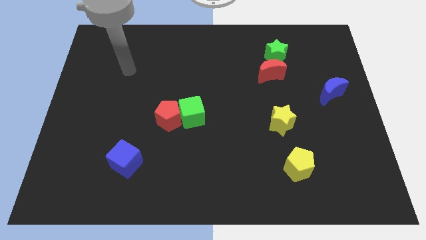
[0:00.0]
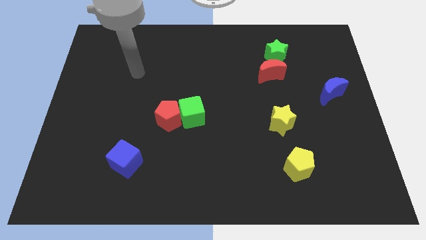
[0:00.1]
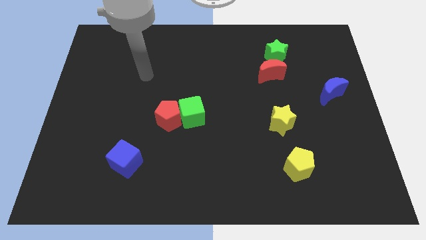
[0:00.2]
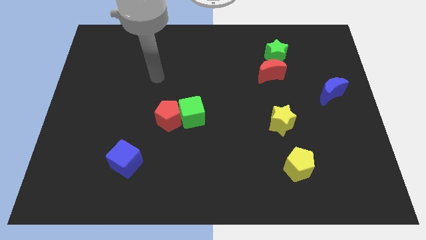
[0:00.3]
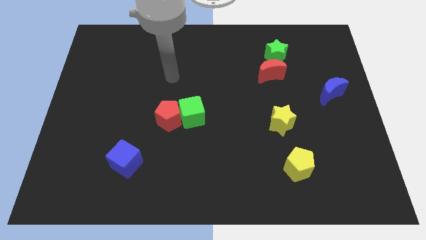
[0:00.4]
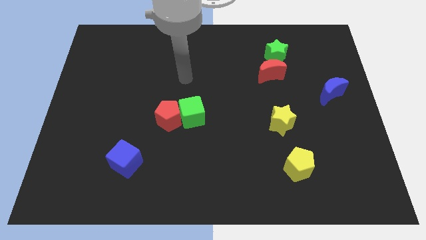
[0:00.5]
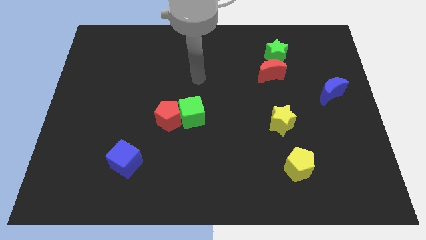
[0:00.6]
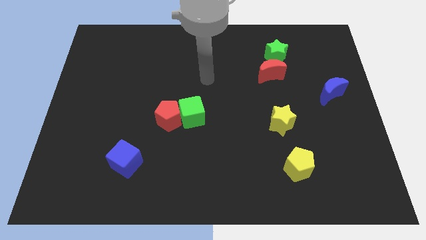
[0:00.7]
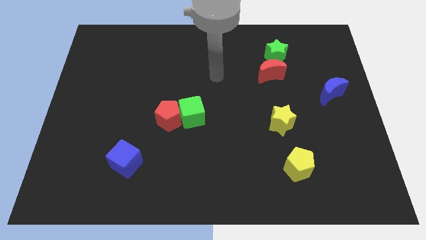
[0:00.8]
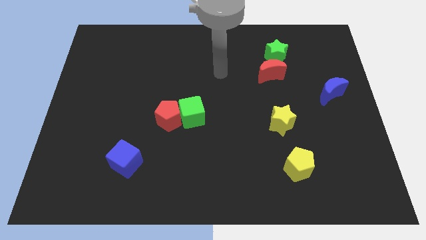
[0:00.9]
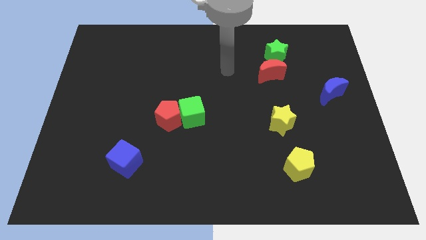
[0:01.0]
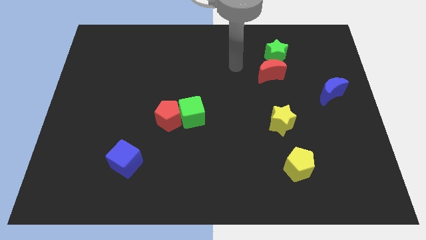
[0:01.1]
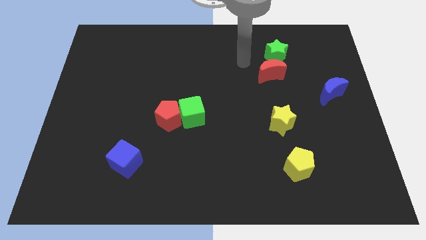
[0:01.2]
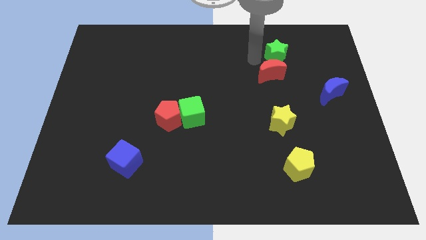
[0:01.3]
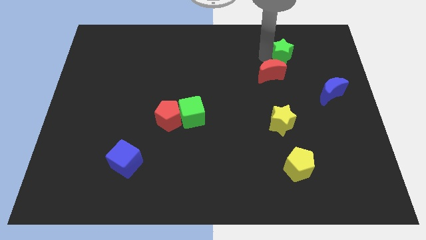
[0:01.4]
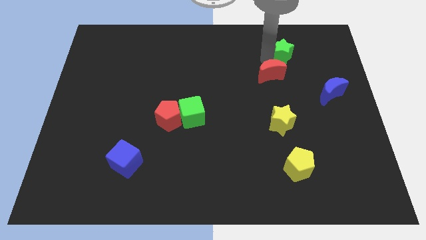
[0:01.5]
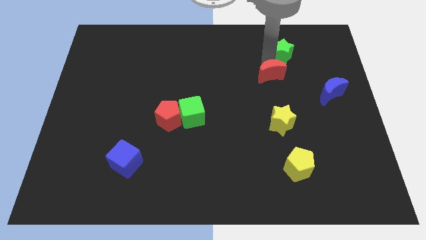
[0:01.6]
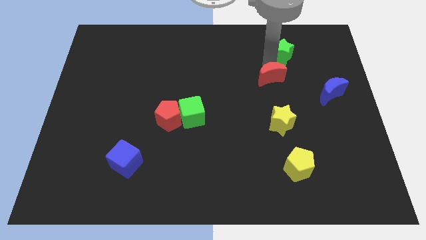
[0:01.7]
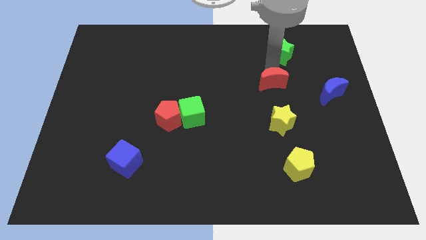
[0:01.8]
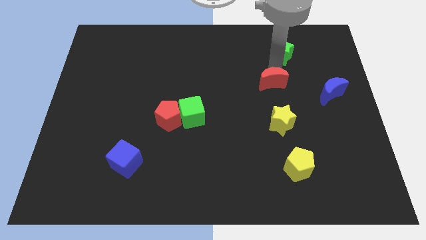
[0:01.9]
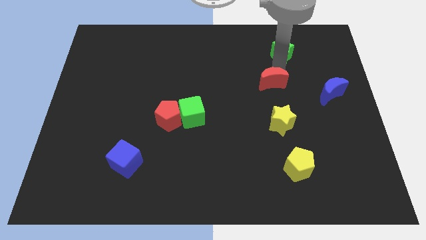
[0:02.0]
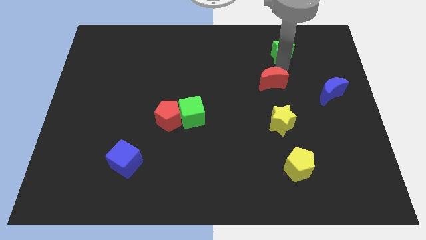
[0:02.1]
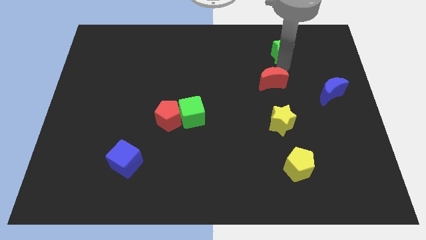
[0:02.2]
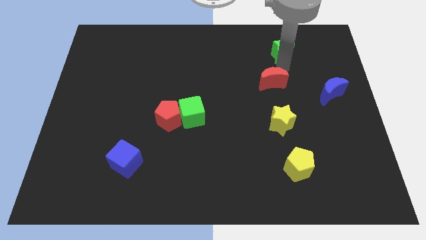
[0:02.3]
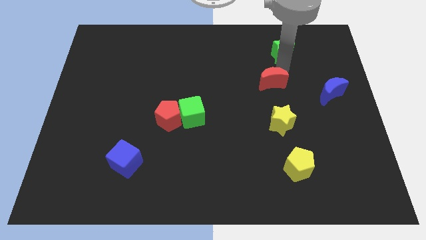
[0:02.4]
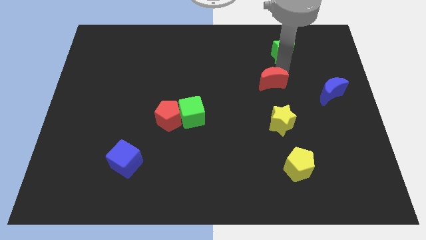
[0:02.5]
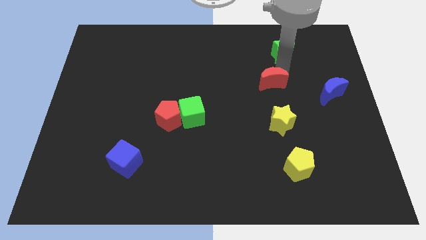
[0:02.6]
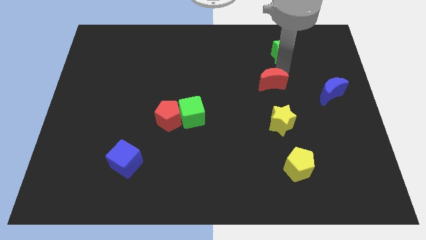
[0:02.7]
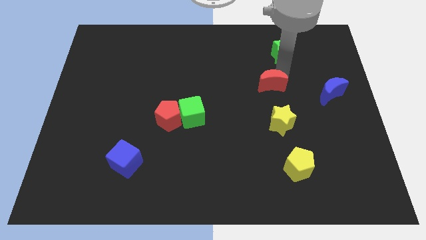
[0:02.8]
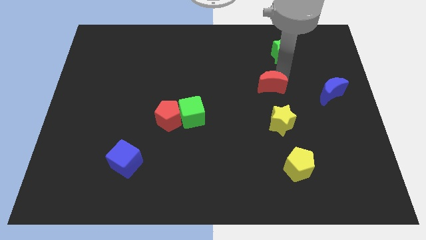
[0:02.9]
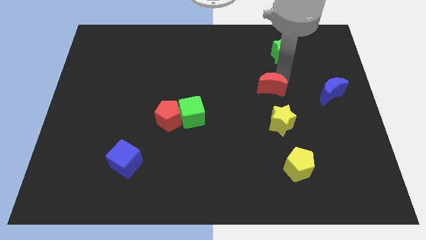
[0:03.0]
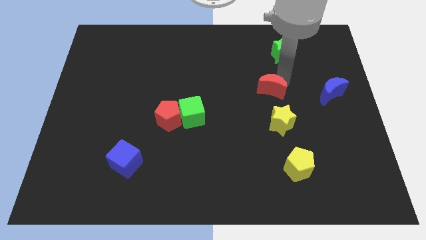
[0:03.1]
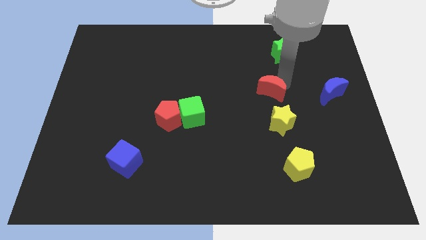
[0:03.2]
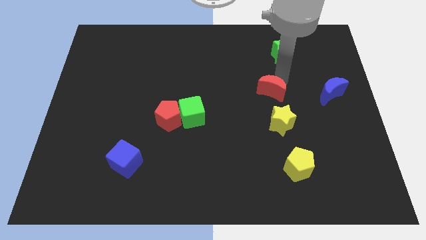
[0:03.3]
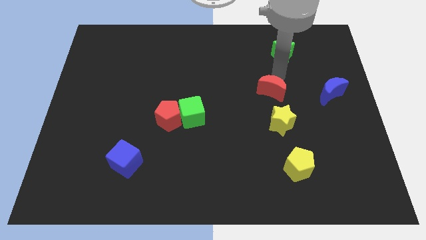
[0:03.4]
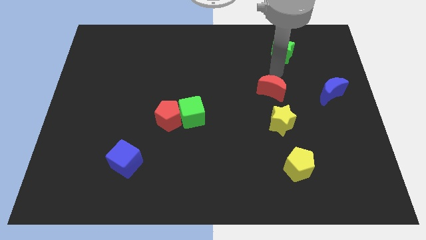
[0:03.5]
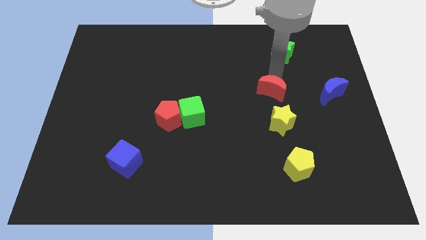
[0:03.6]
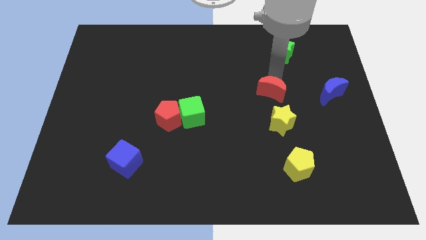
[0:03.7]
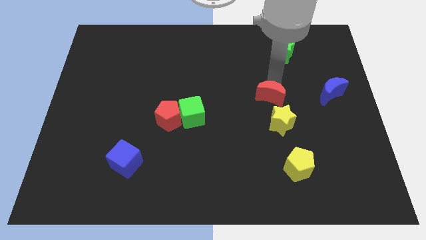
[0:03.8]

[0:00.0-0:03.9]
slide the red moon down somewhat

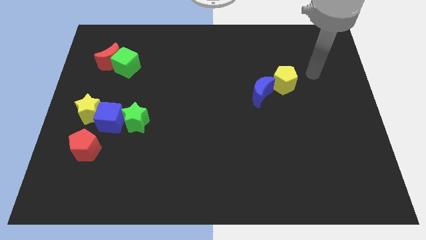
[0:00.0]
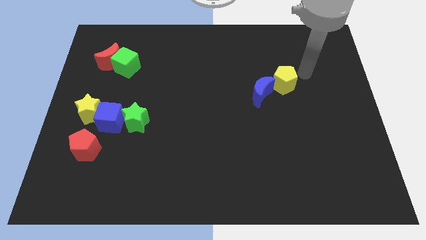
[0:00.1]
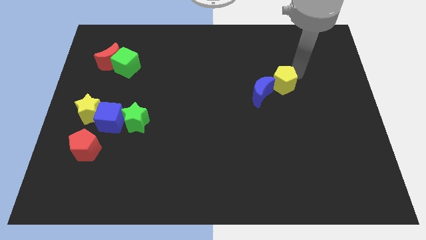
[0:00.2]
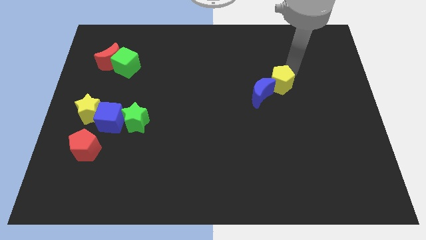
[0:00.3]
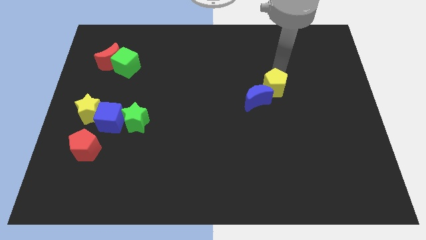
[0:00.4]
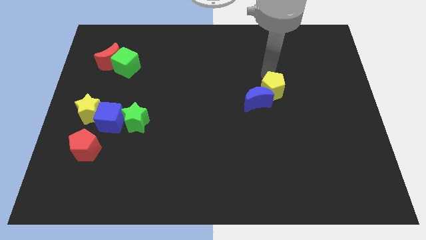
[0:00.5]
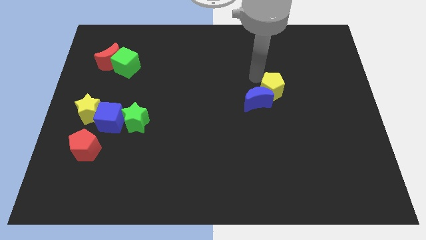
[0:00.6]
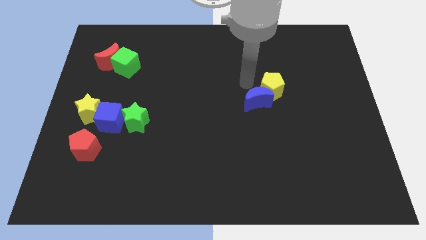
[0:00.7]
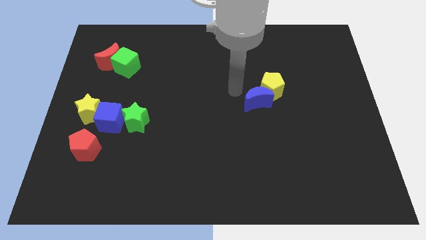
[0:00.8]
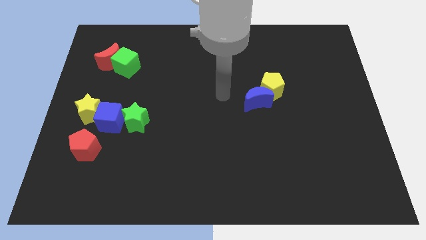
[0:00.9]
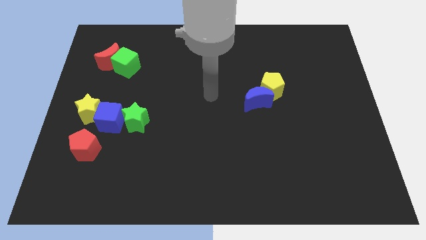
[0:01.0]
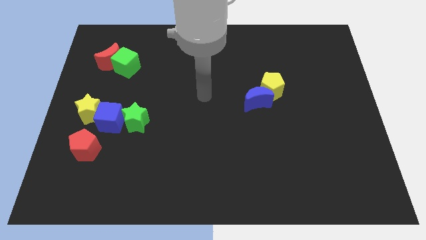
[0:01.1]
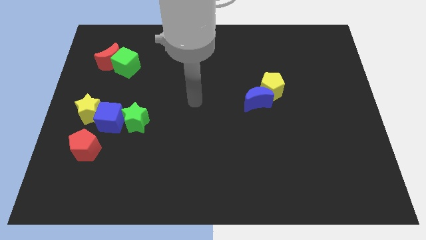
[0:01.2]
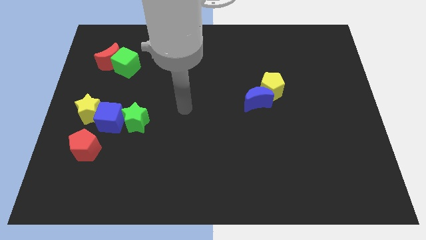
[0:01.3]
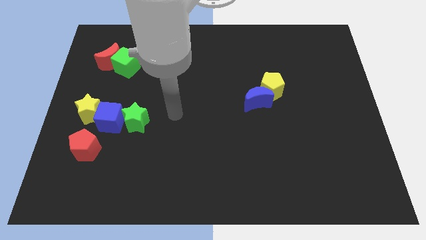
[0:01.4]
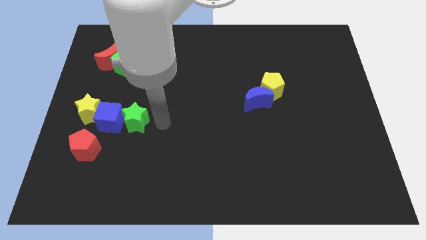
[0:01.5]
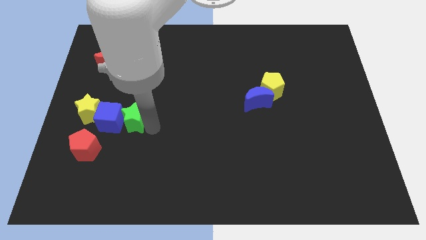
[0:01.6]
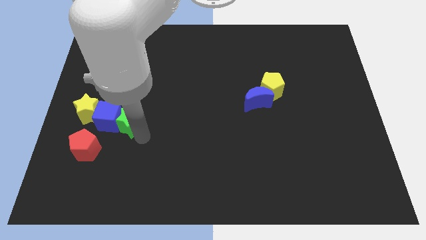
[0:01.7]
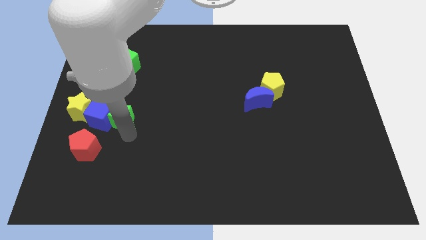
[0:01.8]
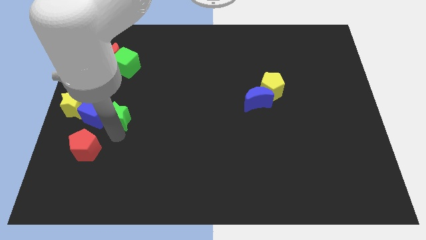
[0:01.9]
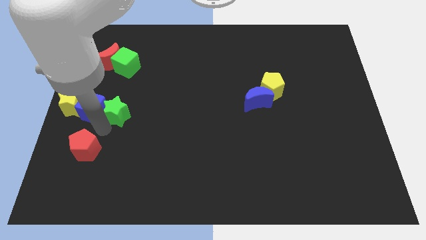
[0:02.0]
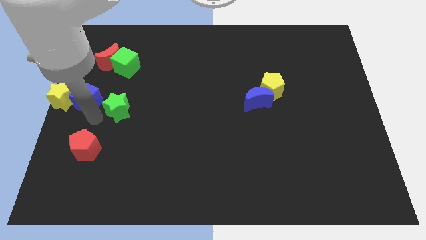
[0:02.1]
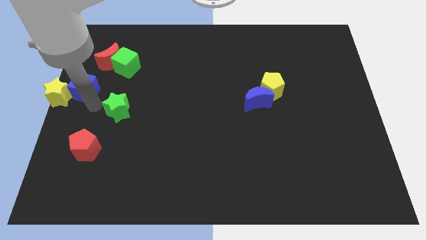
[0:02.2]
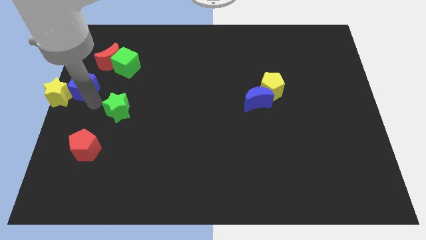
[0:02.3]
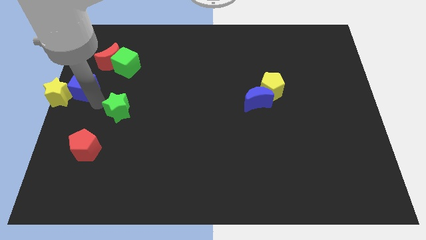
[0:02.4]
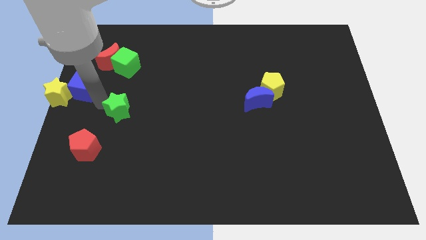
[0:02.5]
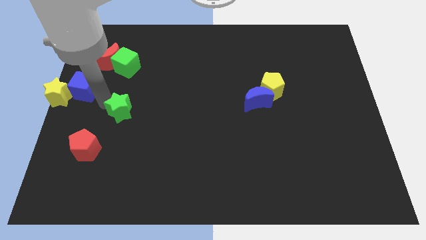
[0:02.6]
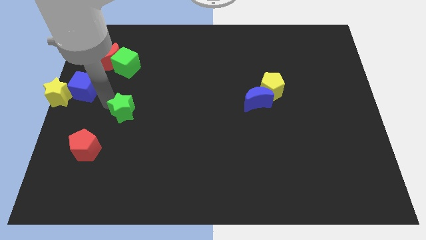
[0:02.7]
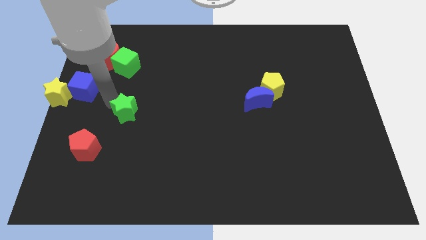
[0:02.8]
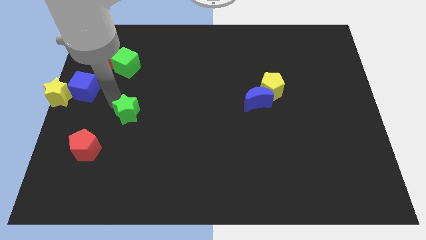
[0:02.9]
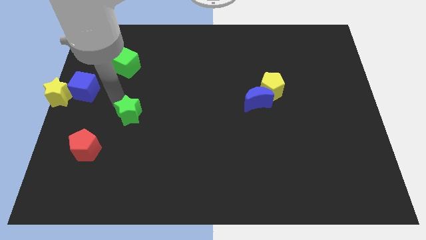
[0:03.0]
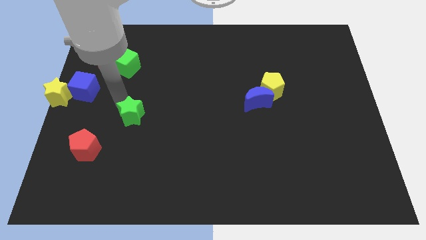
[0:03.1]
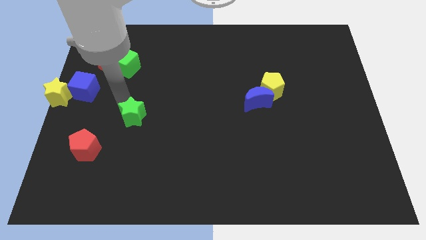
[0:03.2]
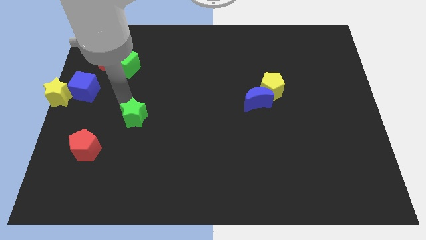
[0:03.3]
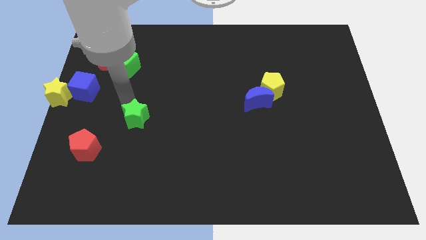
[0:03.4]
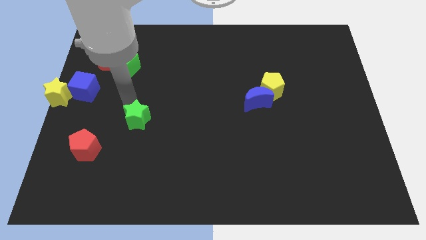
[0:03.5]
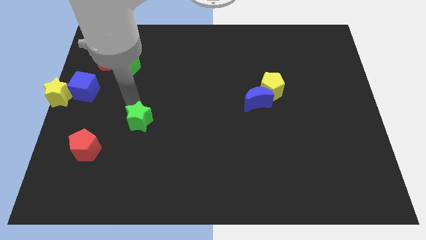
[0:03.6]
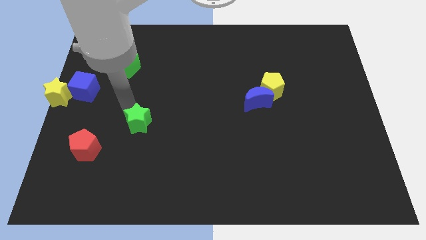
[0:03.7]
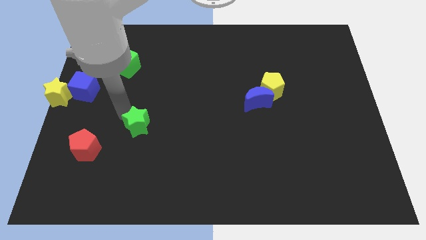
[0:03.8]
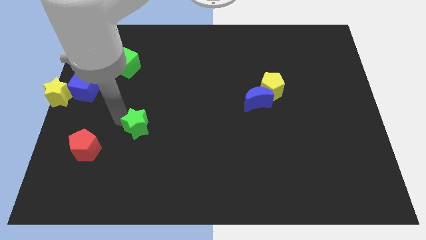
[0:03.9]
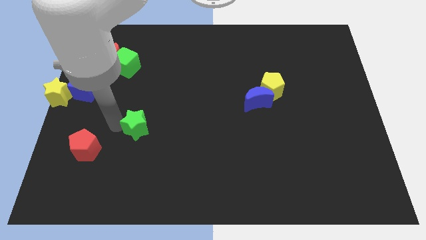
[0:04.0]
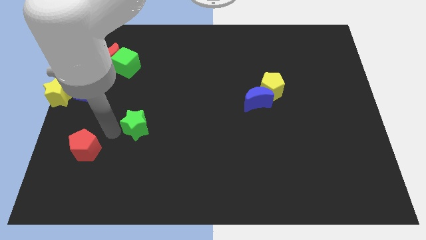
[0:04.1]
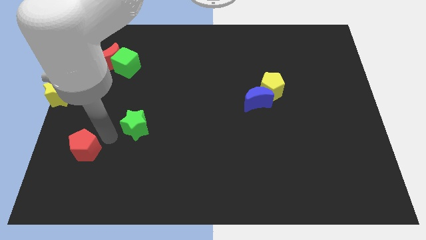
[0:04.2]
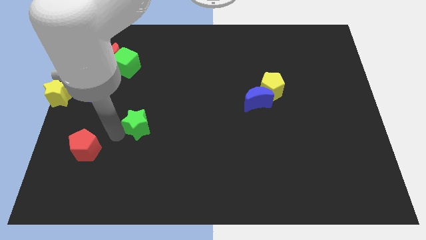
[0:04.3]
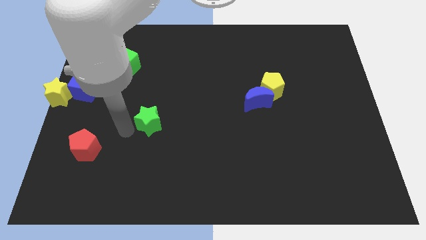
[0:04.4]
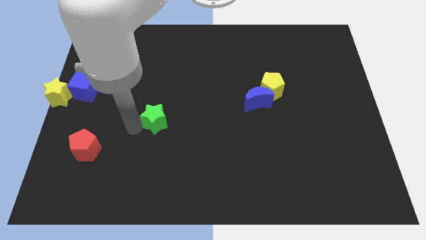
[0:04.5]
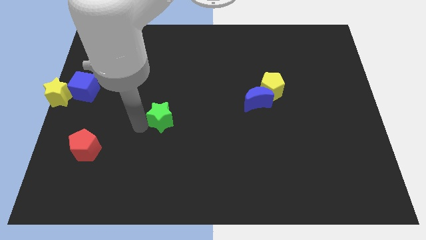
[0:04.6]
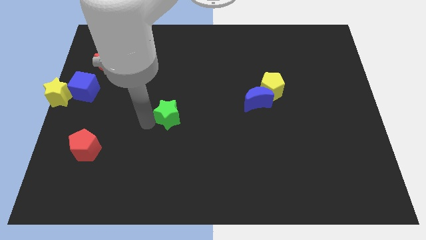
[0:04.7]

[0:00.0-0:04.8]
slightly push the green star to the right
